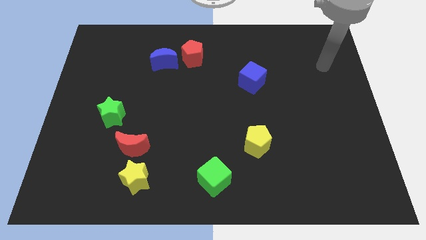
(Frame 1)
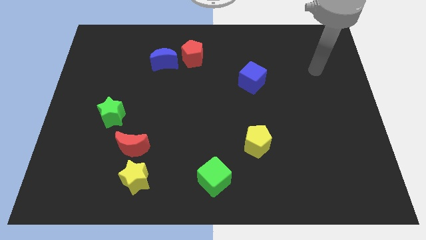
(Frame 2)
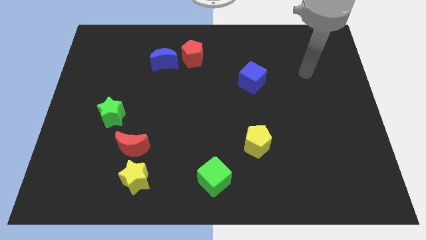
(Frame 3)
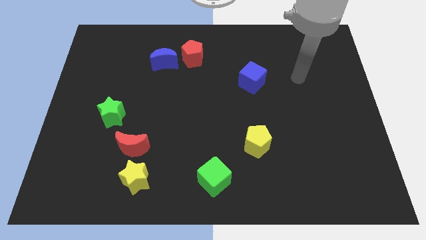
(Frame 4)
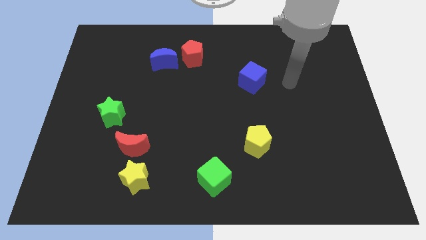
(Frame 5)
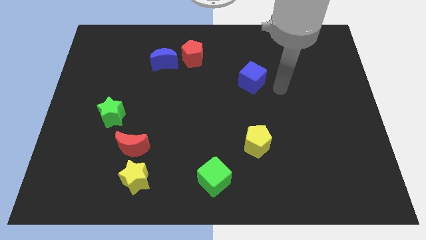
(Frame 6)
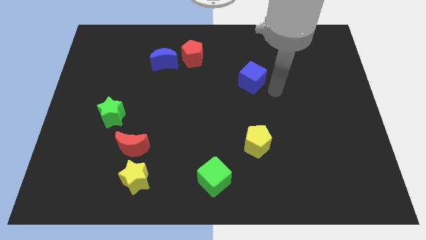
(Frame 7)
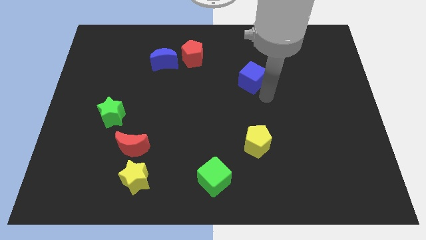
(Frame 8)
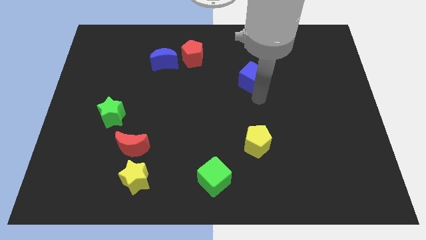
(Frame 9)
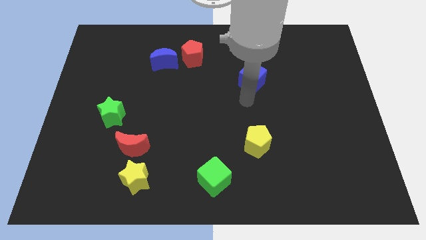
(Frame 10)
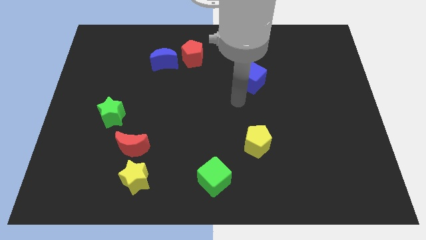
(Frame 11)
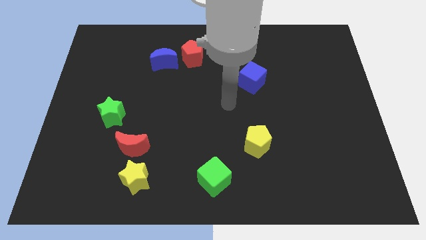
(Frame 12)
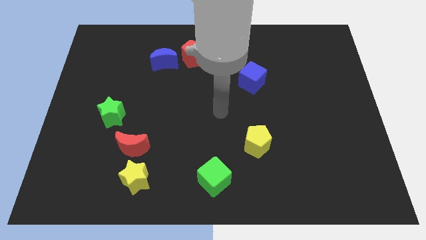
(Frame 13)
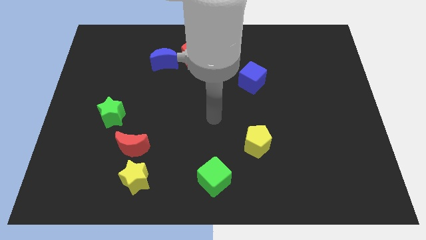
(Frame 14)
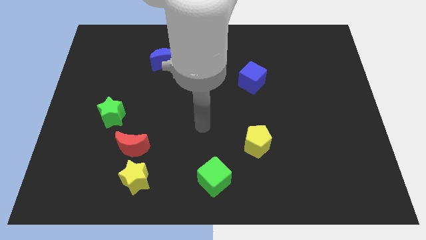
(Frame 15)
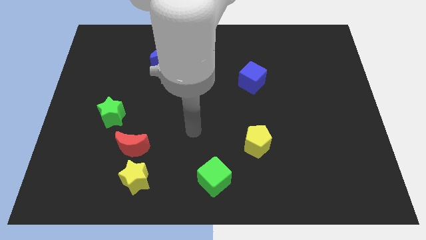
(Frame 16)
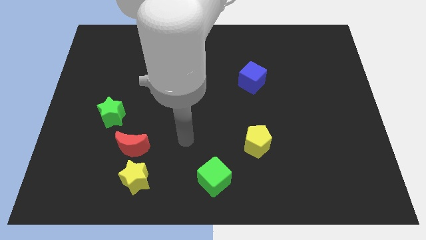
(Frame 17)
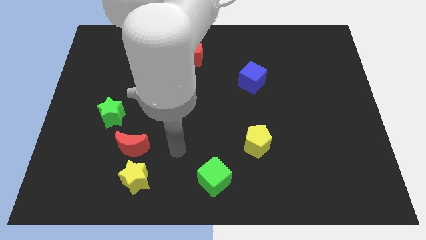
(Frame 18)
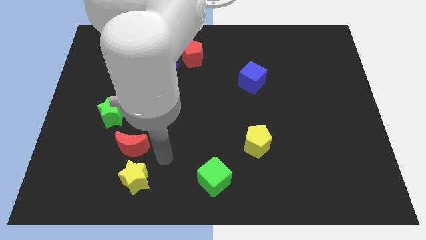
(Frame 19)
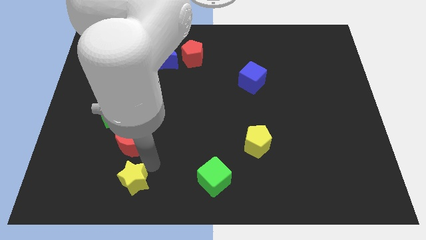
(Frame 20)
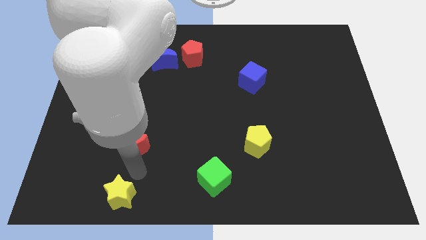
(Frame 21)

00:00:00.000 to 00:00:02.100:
separate the red moon from the yellow star

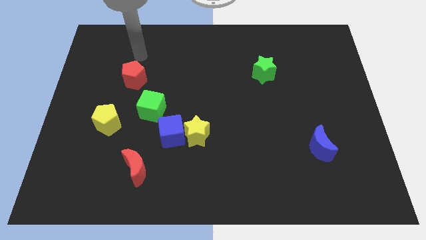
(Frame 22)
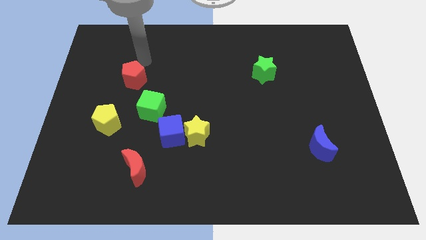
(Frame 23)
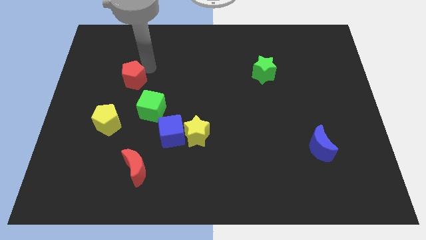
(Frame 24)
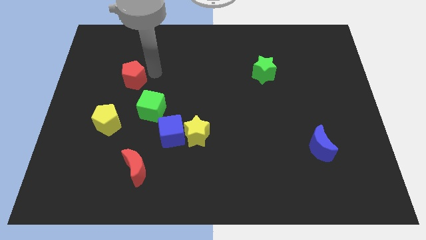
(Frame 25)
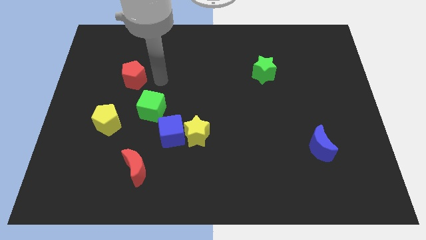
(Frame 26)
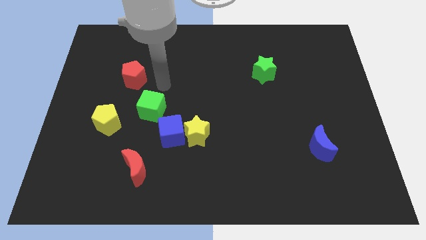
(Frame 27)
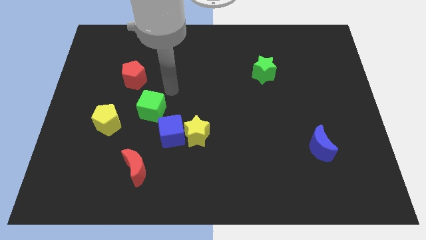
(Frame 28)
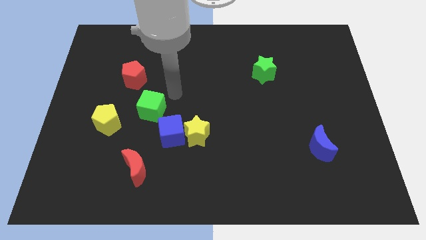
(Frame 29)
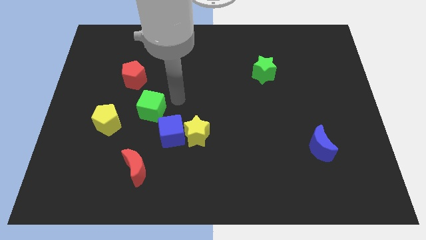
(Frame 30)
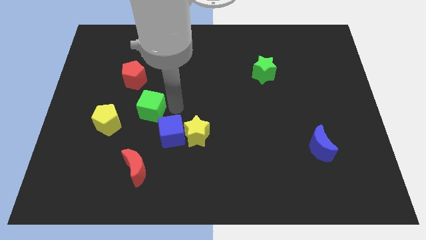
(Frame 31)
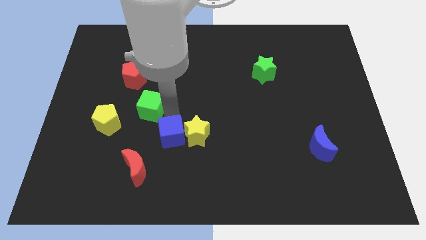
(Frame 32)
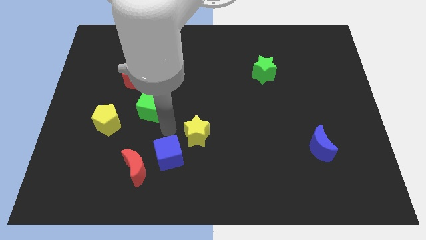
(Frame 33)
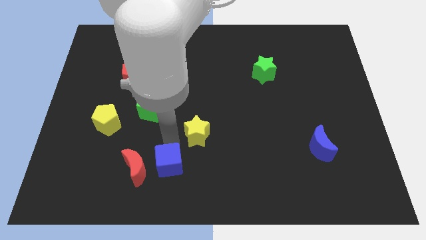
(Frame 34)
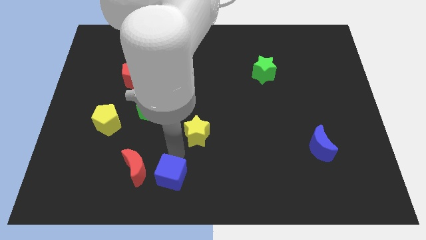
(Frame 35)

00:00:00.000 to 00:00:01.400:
pull the yellow star apart from the blue cube

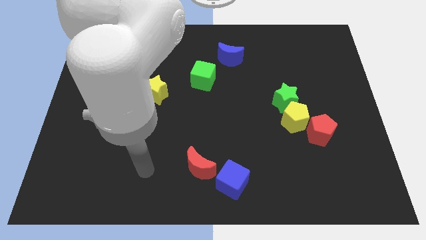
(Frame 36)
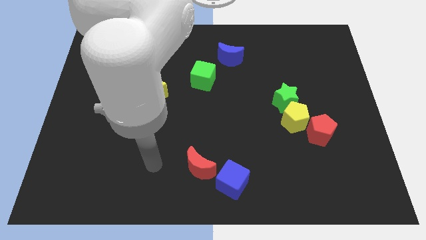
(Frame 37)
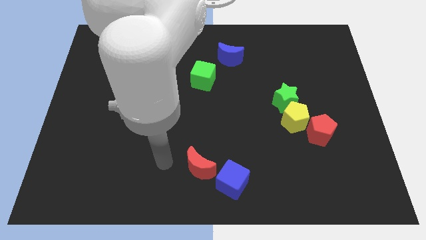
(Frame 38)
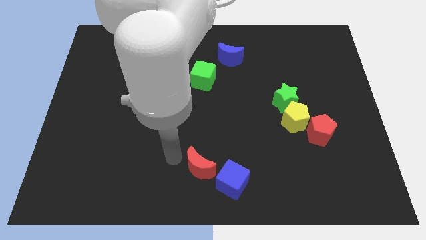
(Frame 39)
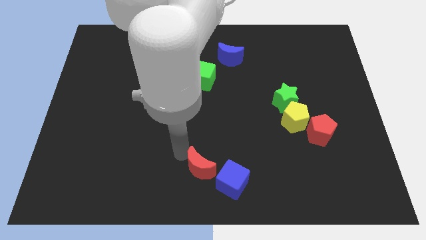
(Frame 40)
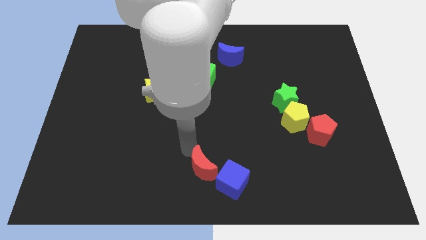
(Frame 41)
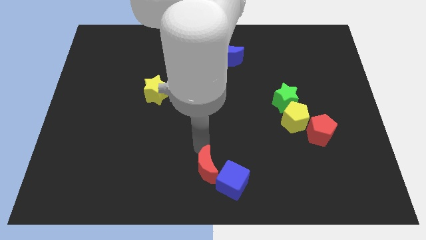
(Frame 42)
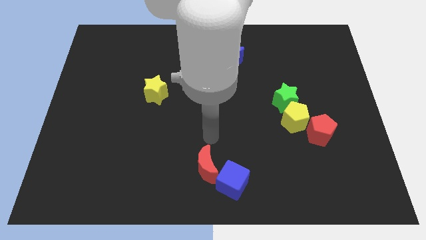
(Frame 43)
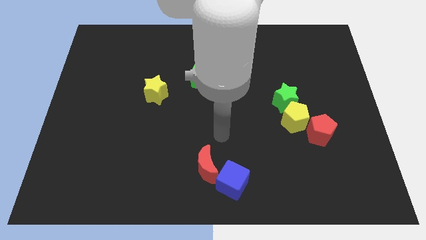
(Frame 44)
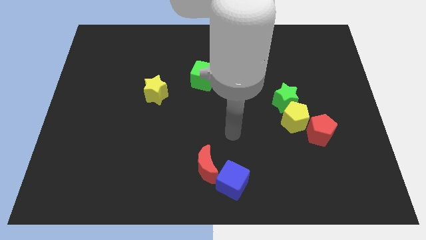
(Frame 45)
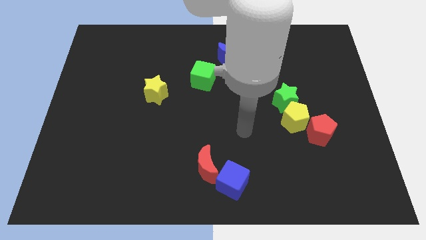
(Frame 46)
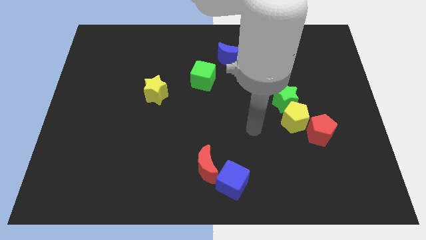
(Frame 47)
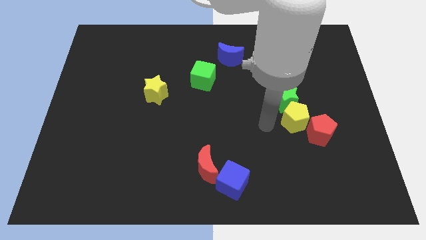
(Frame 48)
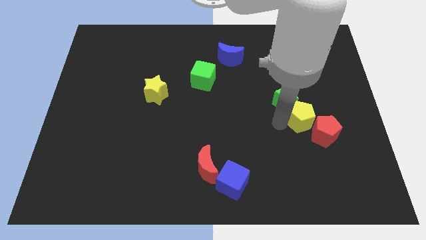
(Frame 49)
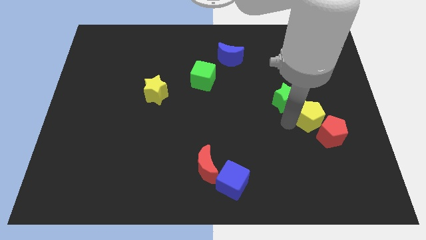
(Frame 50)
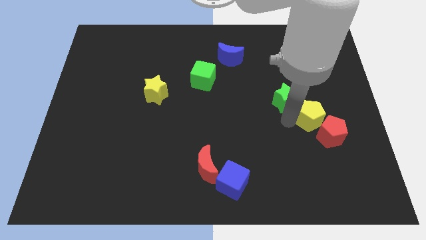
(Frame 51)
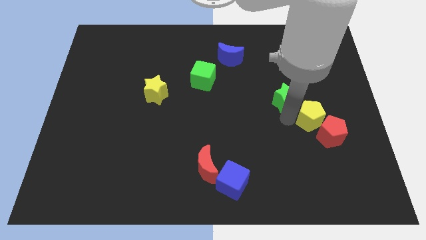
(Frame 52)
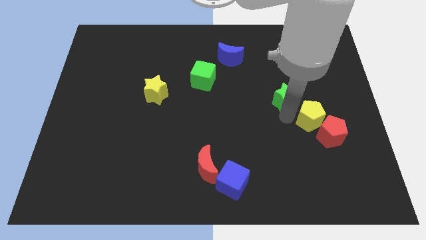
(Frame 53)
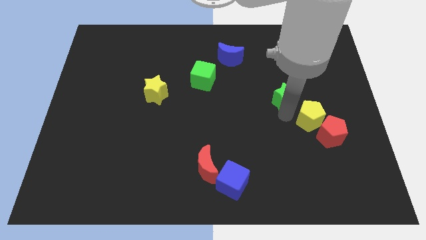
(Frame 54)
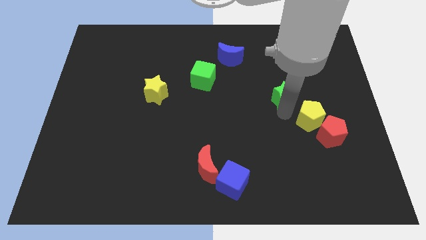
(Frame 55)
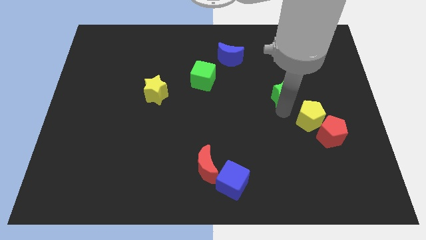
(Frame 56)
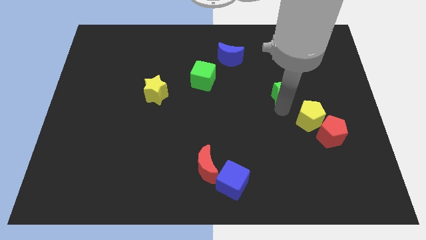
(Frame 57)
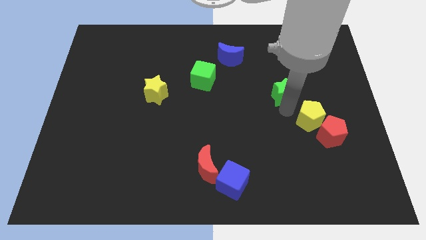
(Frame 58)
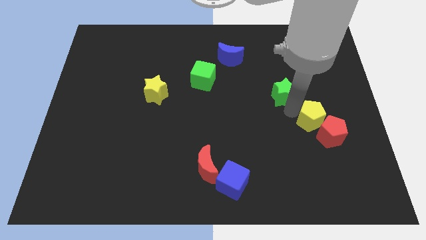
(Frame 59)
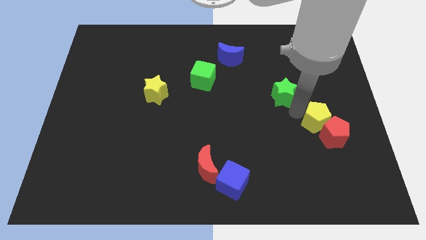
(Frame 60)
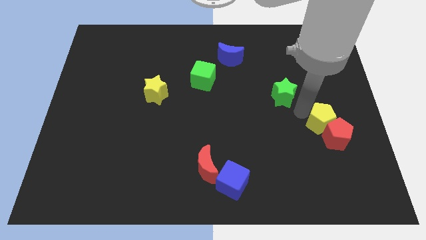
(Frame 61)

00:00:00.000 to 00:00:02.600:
move the green star away from the yellow pentagon

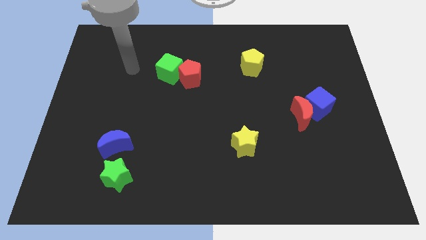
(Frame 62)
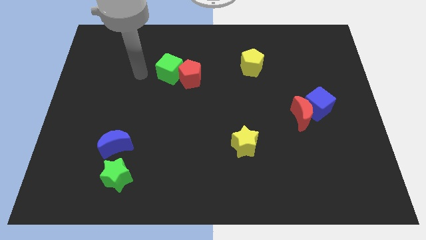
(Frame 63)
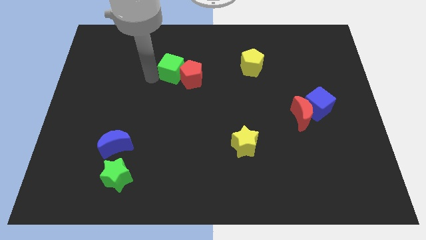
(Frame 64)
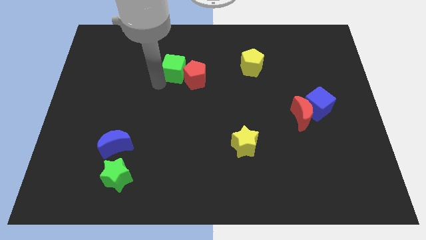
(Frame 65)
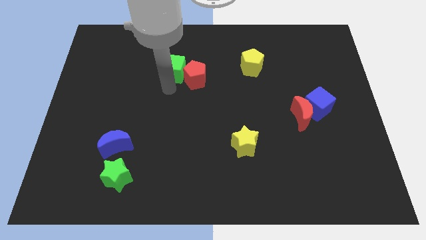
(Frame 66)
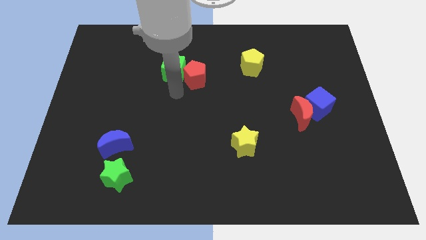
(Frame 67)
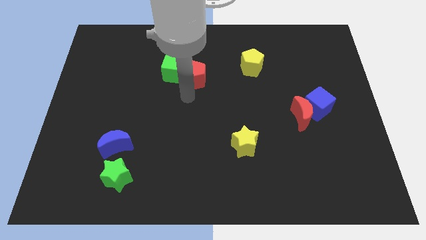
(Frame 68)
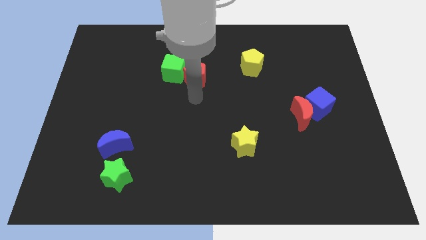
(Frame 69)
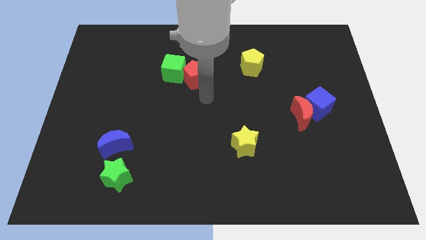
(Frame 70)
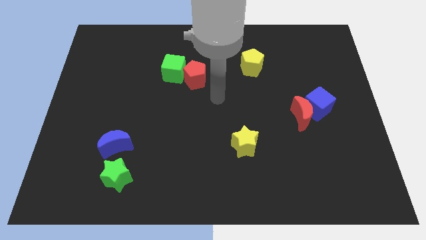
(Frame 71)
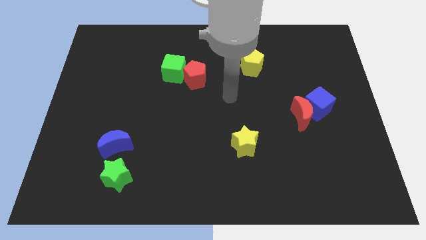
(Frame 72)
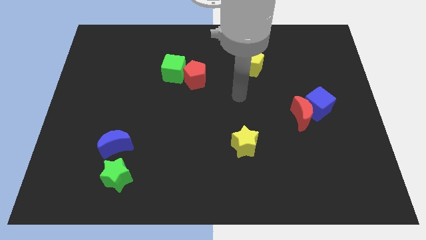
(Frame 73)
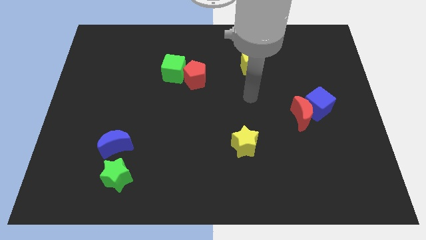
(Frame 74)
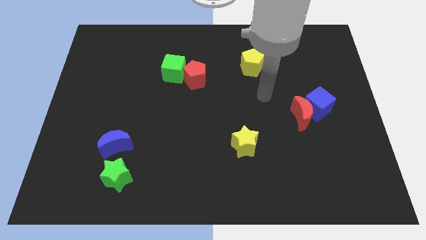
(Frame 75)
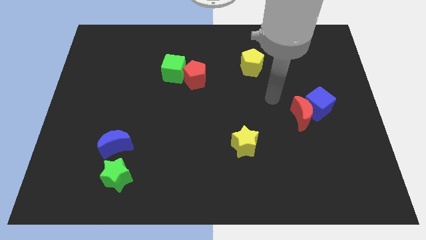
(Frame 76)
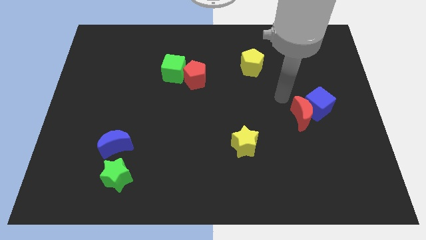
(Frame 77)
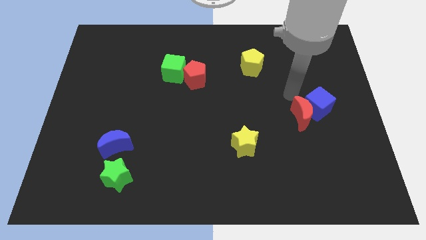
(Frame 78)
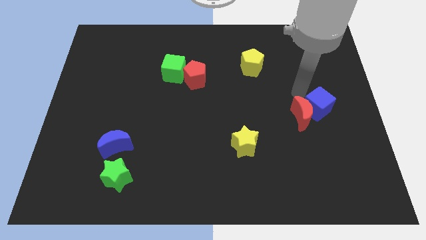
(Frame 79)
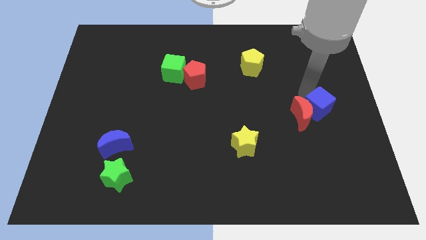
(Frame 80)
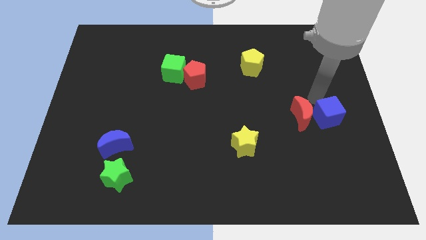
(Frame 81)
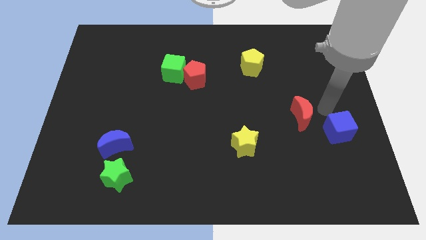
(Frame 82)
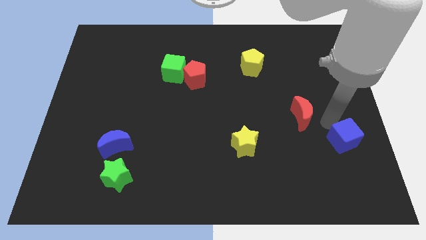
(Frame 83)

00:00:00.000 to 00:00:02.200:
pull the red moon apart from the blue cube

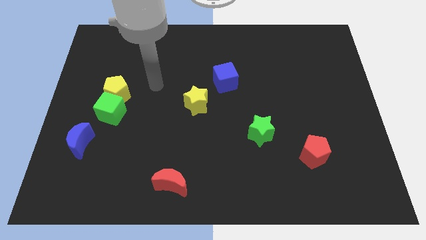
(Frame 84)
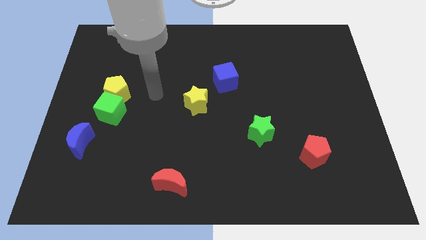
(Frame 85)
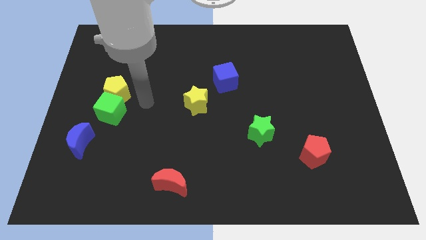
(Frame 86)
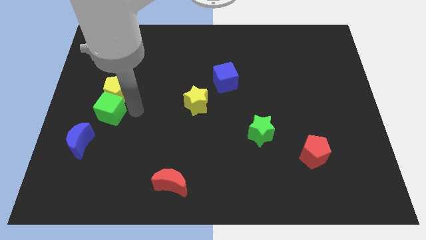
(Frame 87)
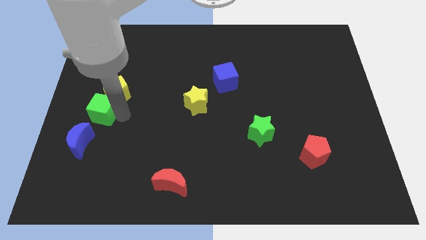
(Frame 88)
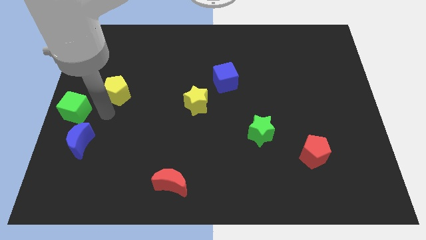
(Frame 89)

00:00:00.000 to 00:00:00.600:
separate the yellow pentagon from the green cube

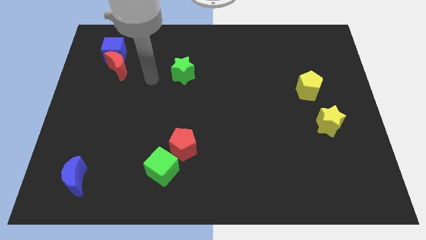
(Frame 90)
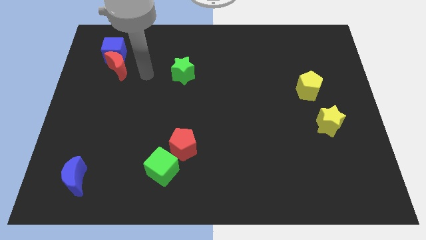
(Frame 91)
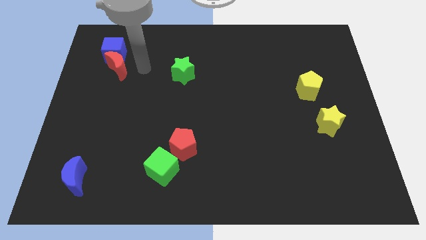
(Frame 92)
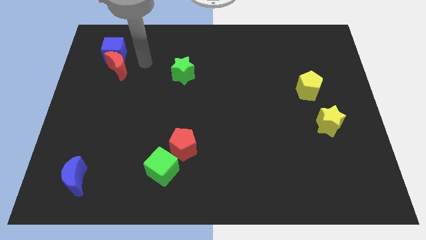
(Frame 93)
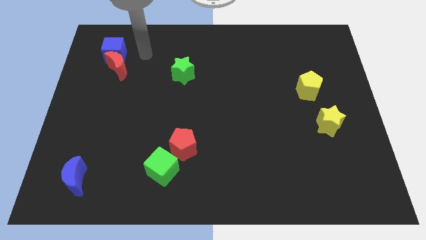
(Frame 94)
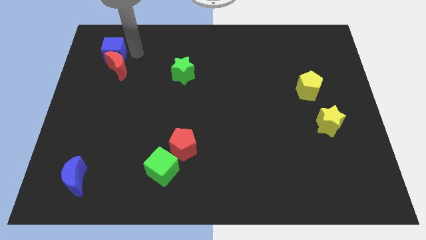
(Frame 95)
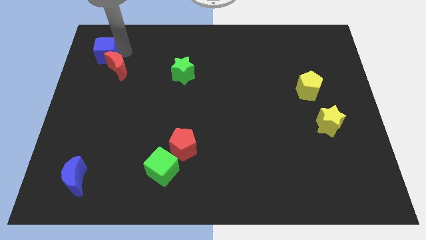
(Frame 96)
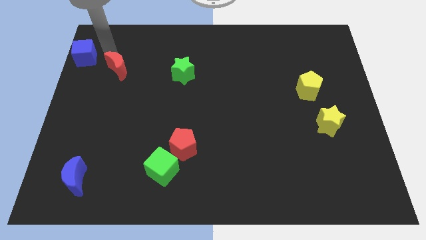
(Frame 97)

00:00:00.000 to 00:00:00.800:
separate the red moon from the blue cube
